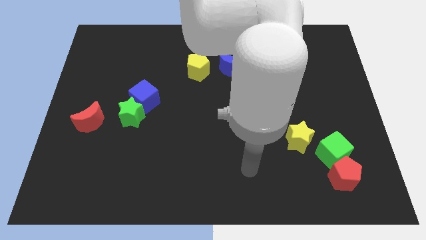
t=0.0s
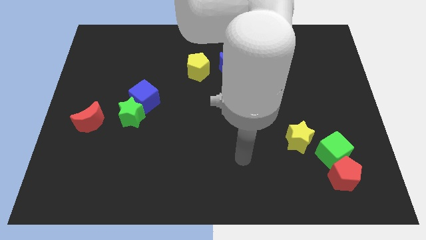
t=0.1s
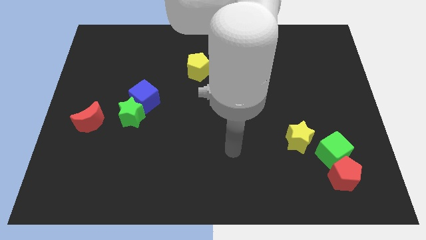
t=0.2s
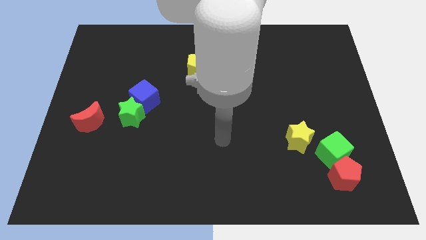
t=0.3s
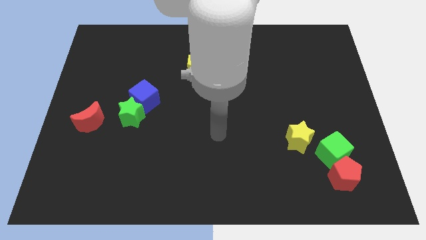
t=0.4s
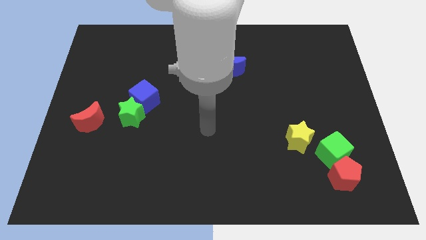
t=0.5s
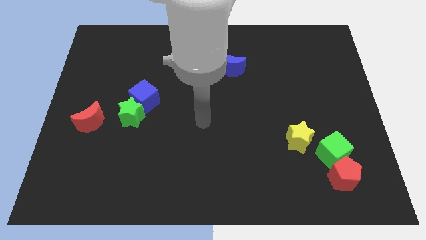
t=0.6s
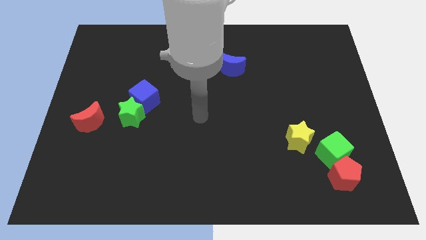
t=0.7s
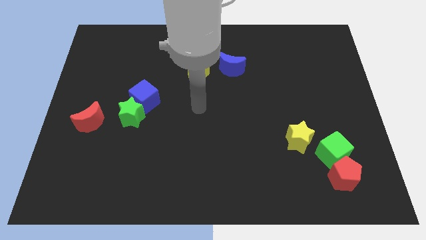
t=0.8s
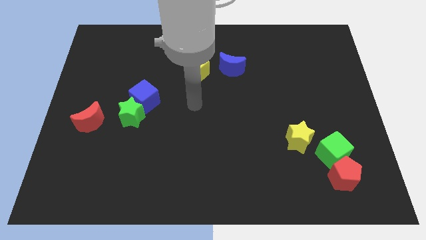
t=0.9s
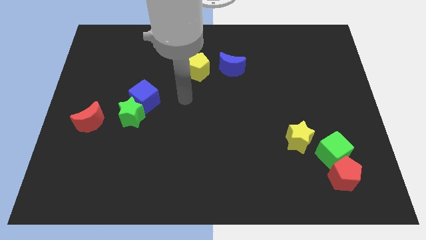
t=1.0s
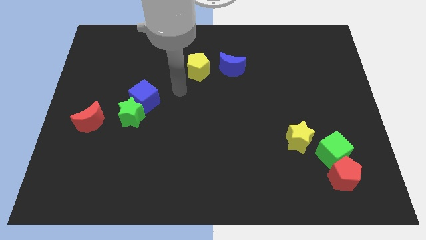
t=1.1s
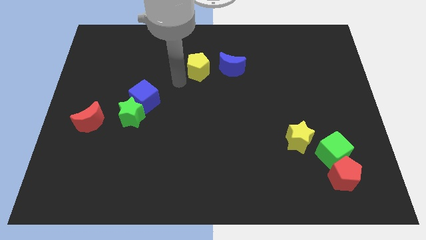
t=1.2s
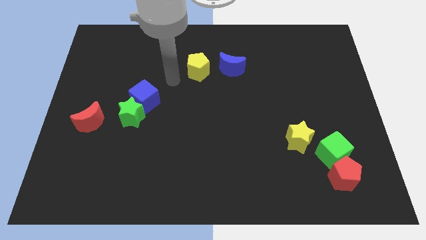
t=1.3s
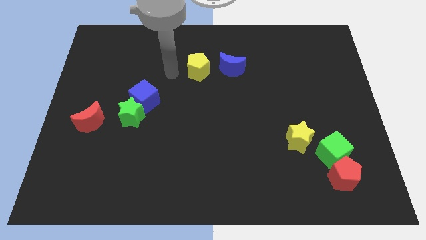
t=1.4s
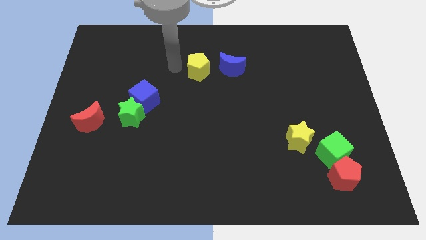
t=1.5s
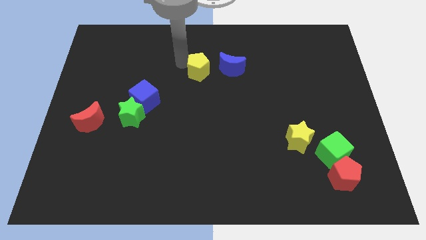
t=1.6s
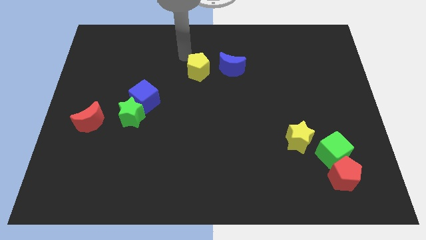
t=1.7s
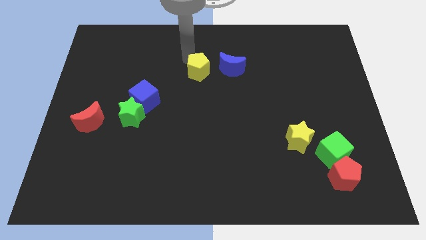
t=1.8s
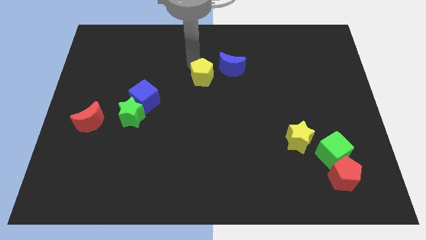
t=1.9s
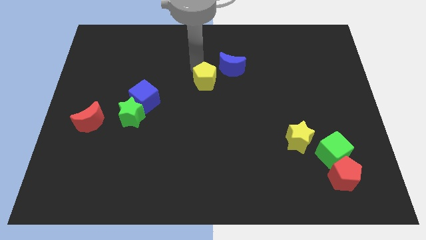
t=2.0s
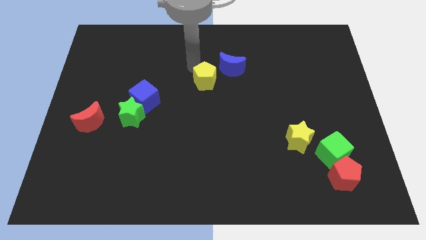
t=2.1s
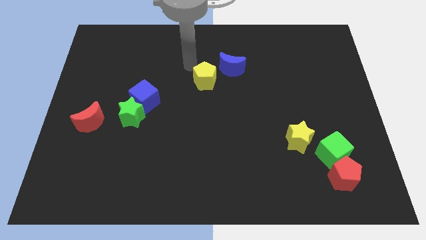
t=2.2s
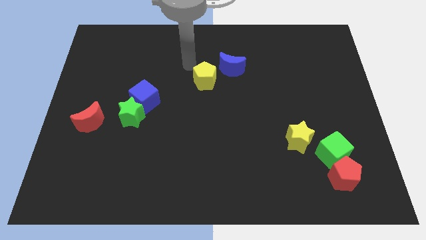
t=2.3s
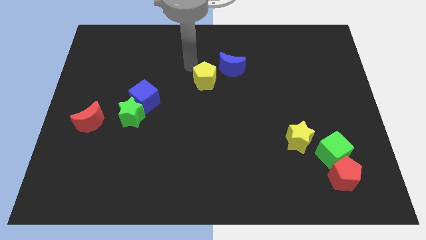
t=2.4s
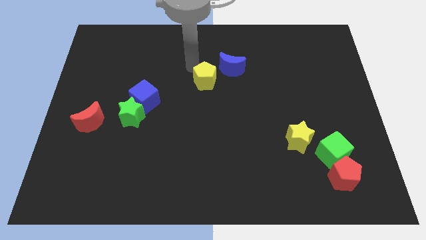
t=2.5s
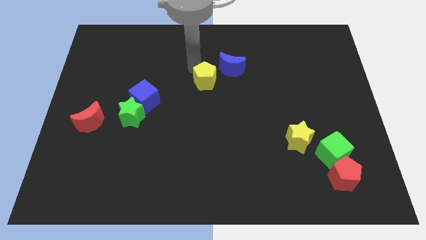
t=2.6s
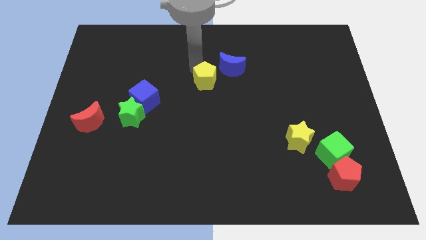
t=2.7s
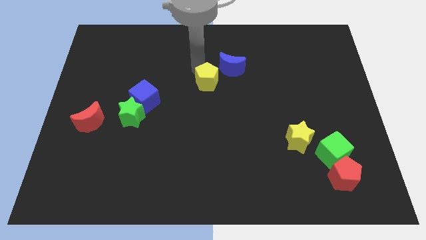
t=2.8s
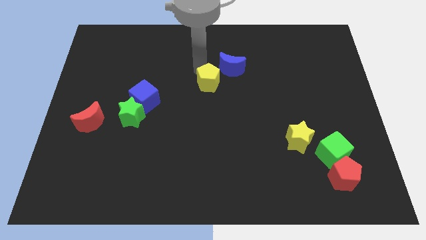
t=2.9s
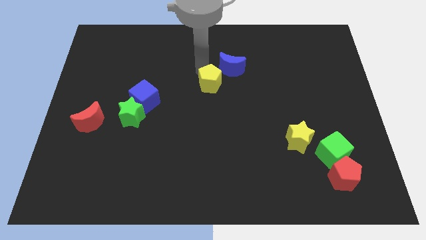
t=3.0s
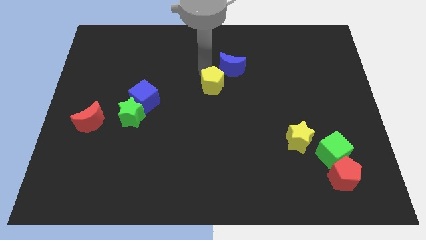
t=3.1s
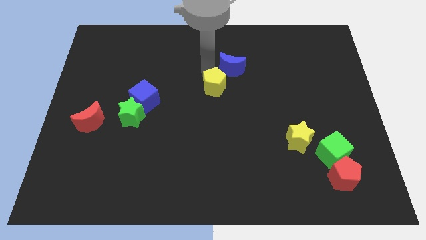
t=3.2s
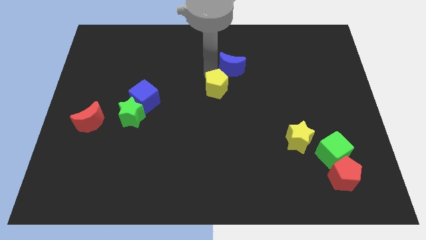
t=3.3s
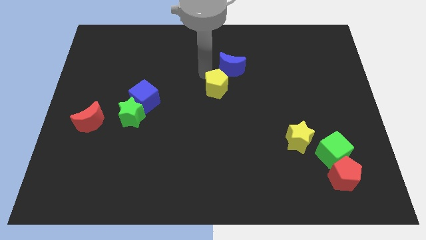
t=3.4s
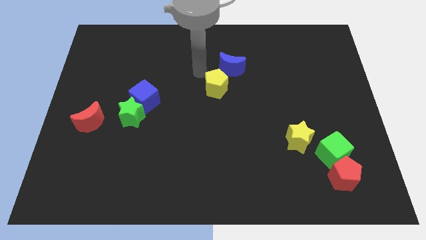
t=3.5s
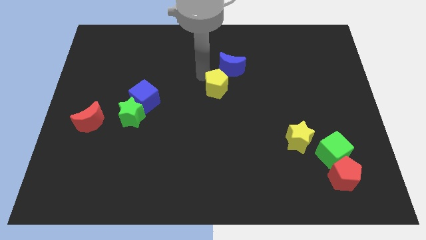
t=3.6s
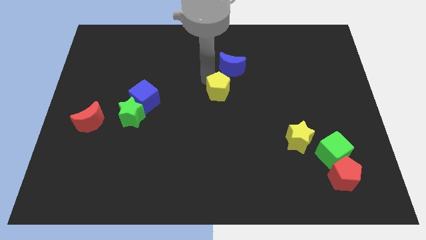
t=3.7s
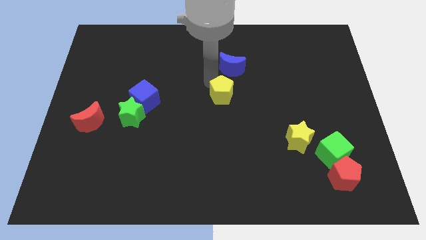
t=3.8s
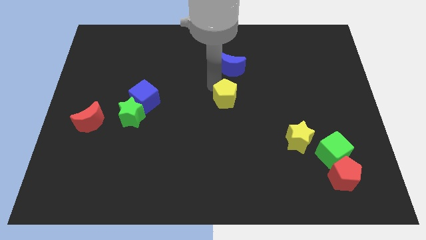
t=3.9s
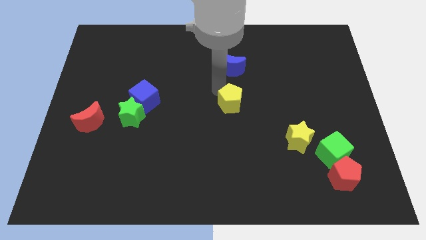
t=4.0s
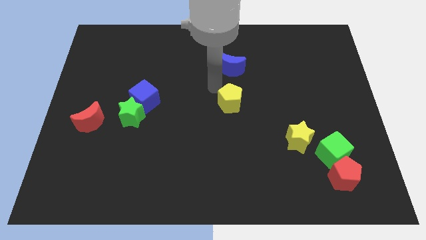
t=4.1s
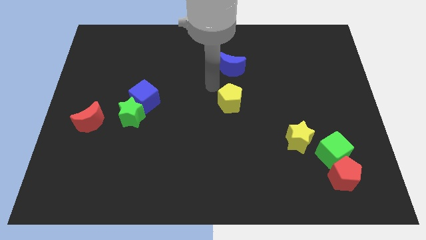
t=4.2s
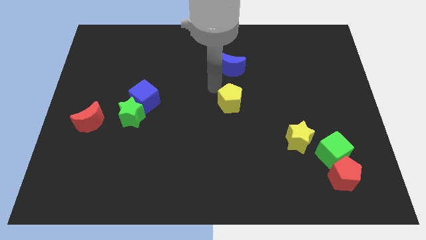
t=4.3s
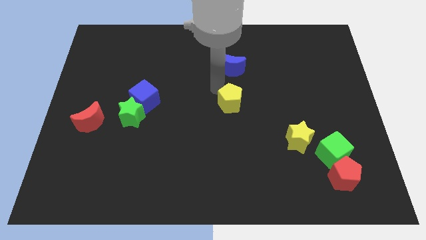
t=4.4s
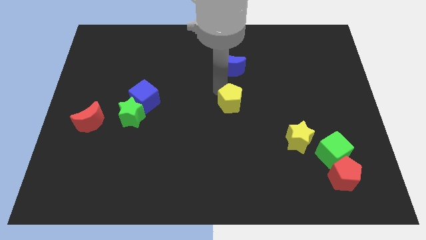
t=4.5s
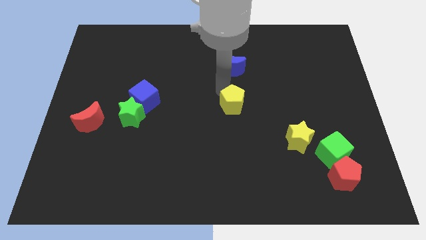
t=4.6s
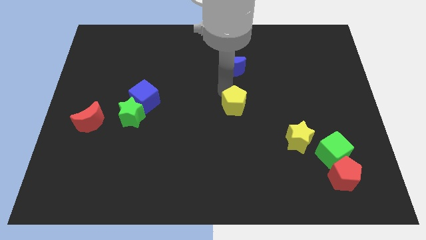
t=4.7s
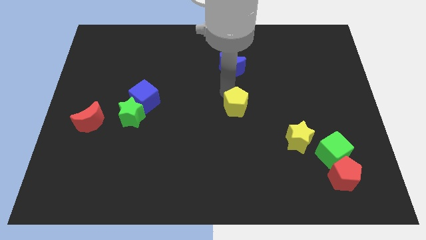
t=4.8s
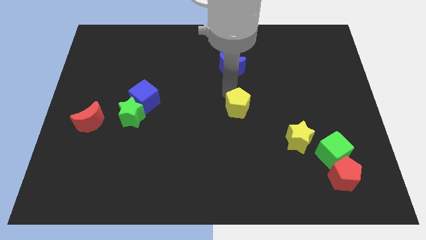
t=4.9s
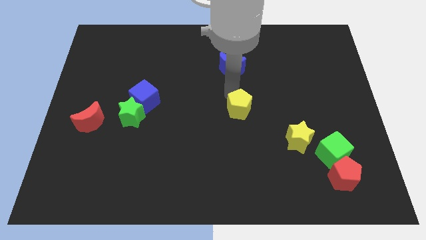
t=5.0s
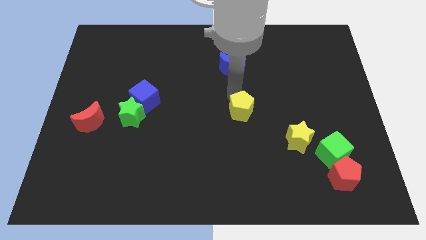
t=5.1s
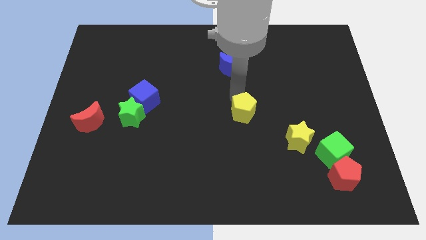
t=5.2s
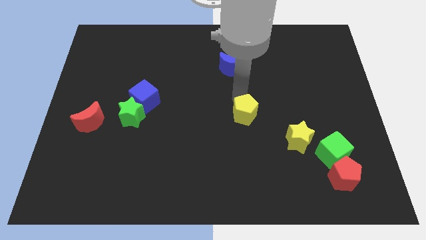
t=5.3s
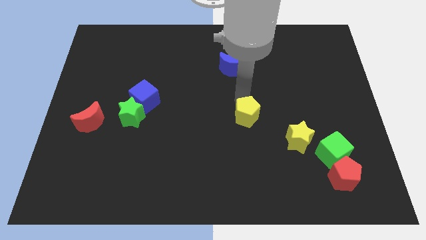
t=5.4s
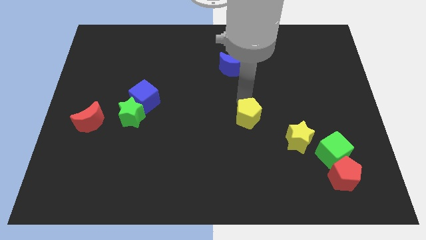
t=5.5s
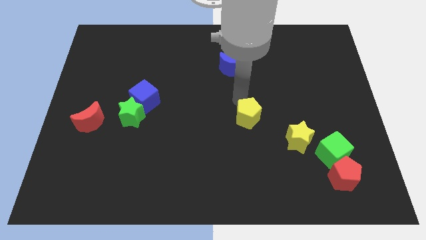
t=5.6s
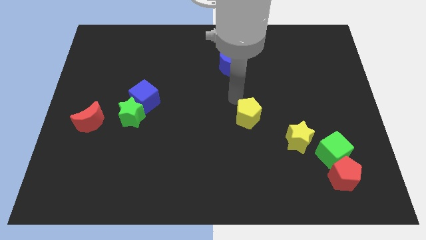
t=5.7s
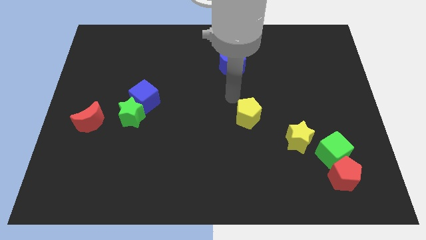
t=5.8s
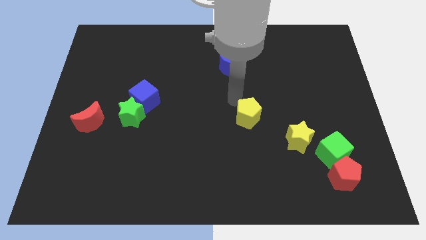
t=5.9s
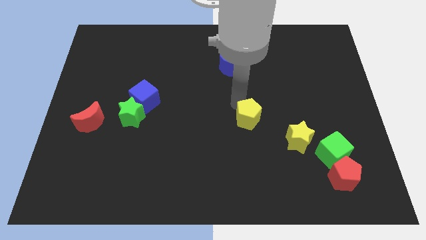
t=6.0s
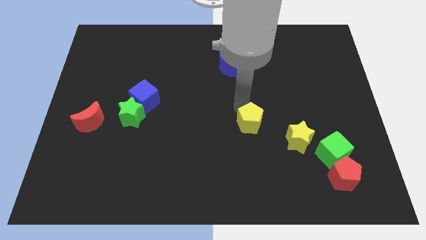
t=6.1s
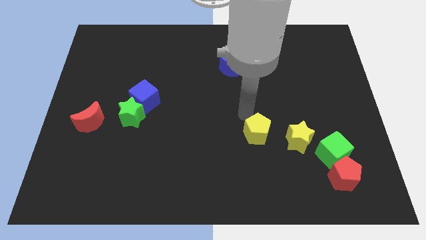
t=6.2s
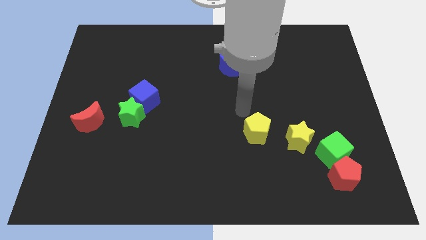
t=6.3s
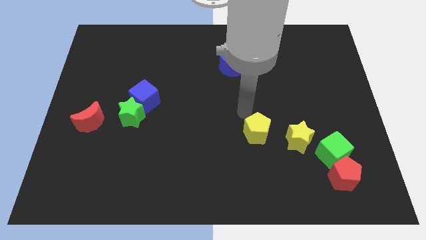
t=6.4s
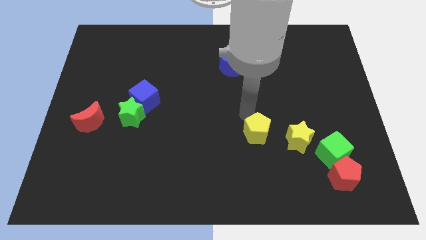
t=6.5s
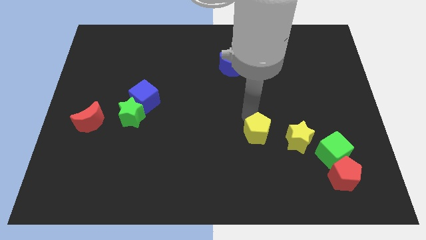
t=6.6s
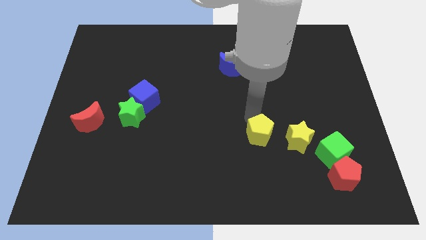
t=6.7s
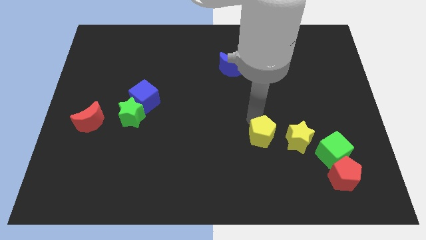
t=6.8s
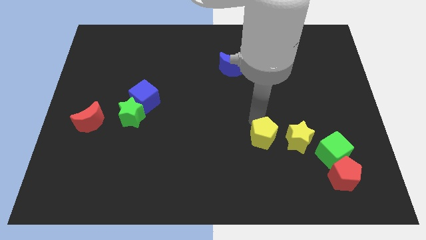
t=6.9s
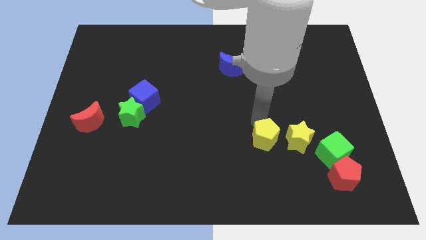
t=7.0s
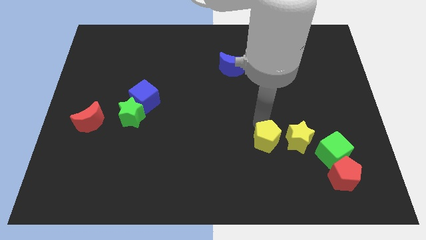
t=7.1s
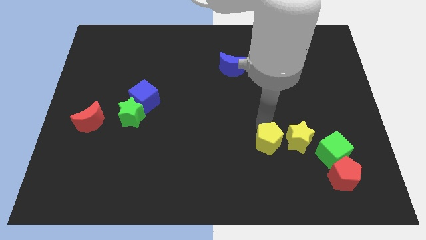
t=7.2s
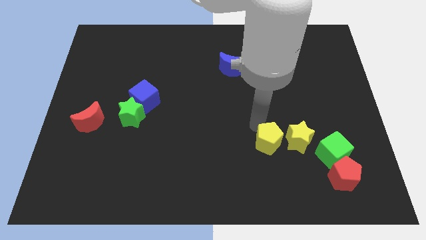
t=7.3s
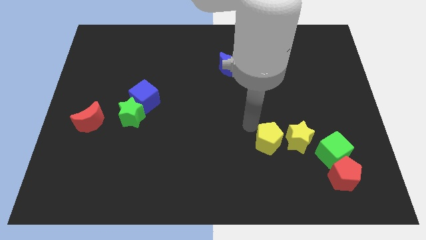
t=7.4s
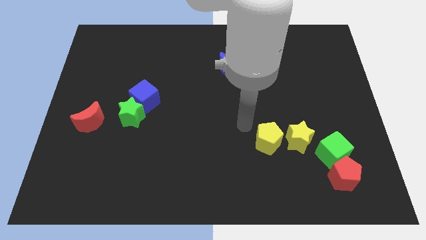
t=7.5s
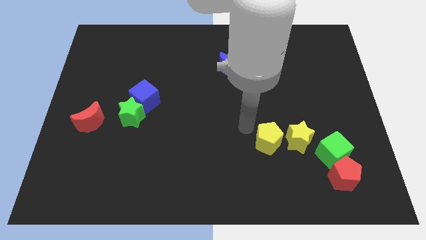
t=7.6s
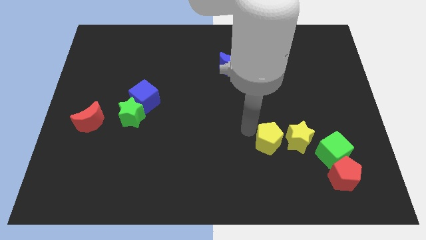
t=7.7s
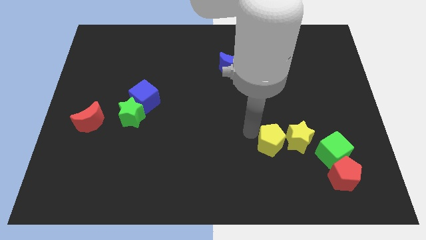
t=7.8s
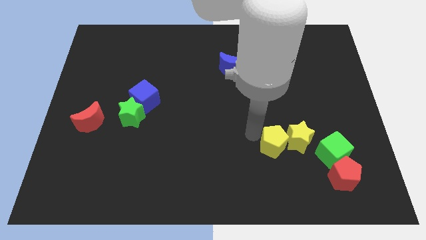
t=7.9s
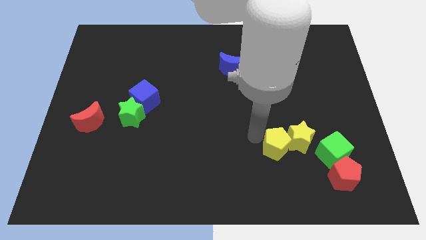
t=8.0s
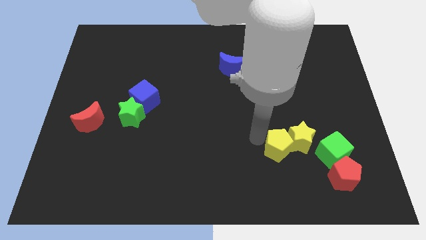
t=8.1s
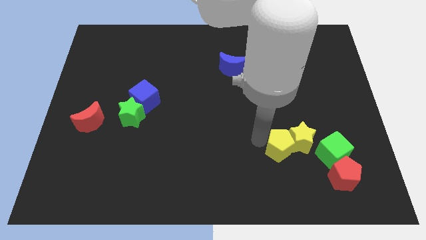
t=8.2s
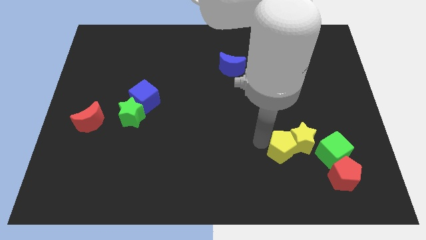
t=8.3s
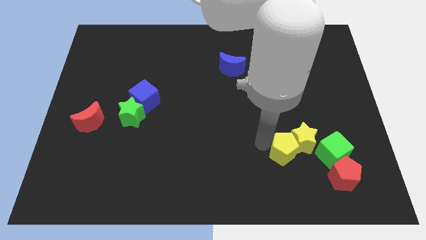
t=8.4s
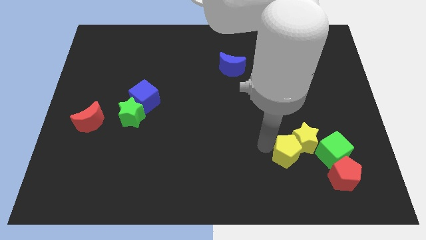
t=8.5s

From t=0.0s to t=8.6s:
slide the yellow pentagon to the top left of the red pentagon
